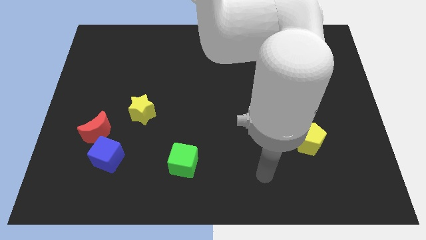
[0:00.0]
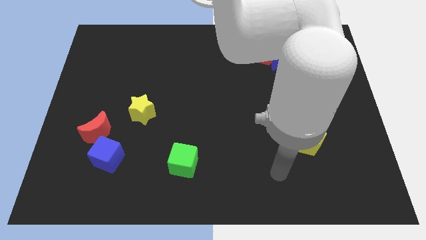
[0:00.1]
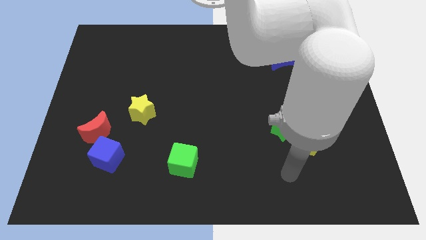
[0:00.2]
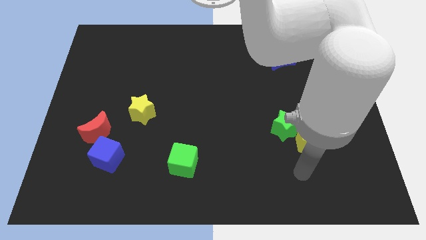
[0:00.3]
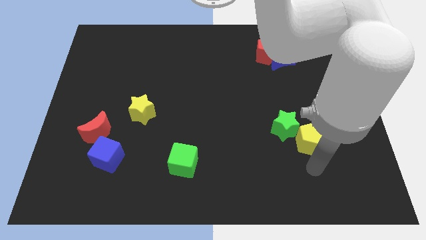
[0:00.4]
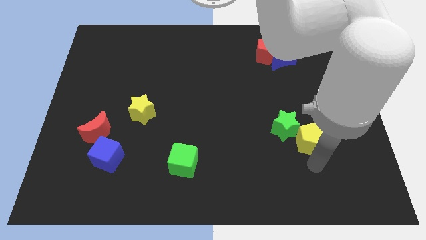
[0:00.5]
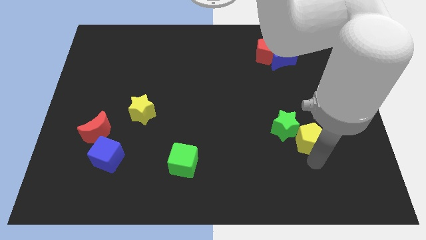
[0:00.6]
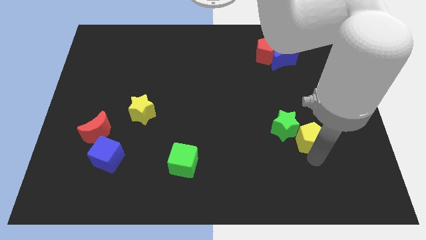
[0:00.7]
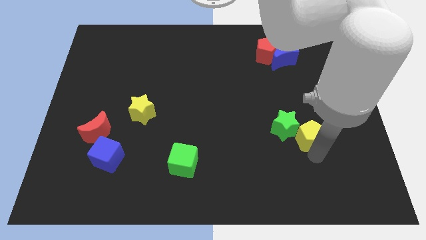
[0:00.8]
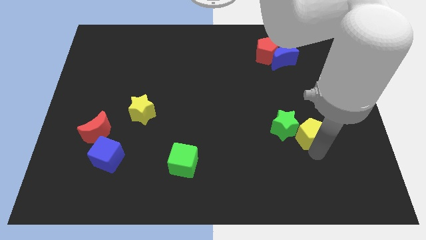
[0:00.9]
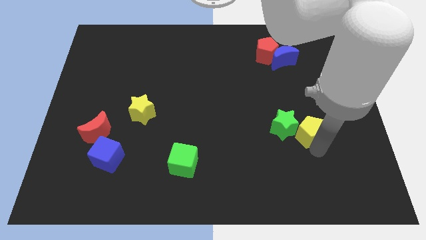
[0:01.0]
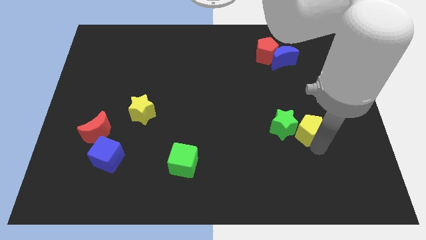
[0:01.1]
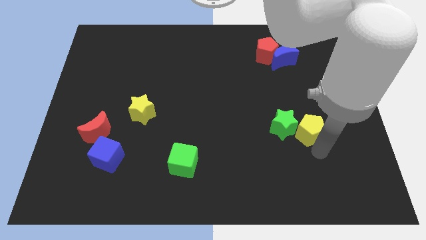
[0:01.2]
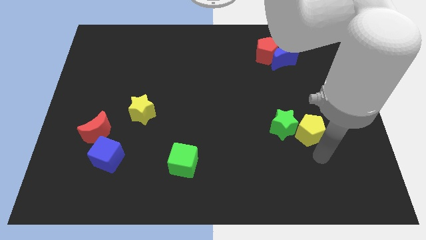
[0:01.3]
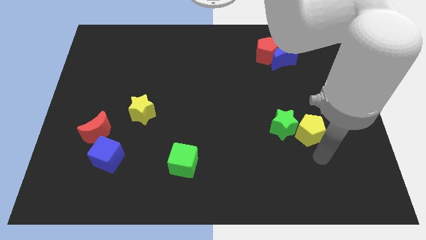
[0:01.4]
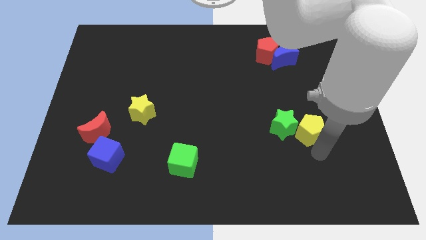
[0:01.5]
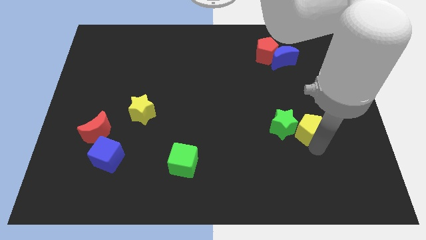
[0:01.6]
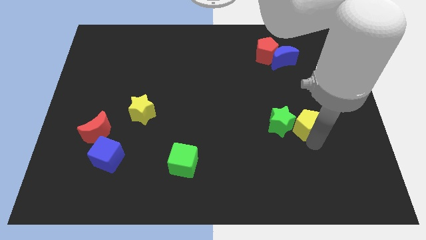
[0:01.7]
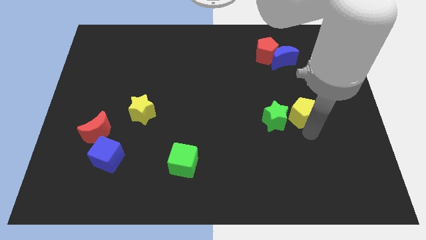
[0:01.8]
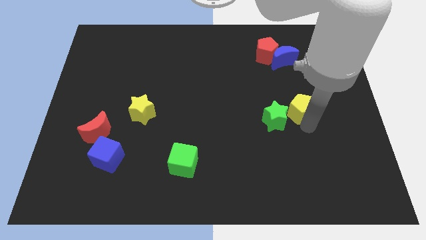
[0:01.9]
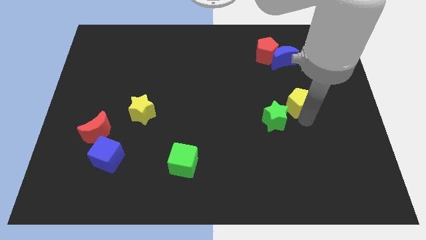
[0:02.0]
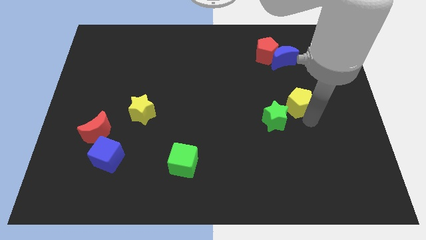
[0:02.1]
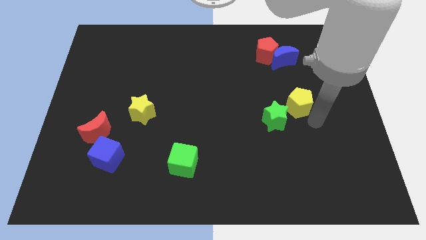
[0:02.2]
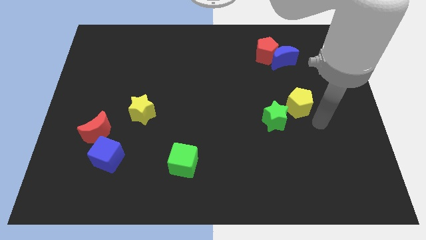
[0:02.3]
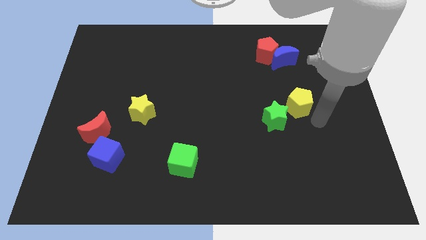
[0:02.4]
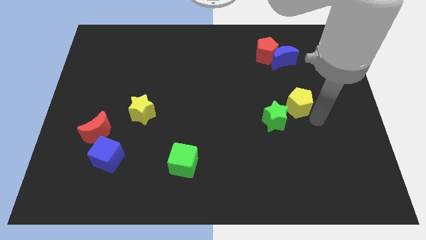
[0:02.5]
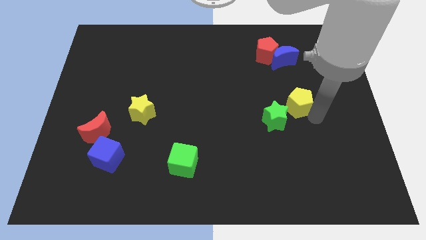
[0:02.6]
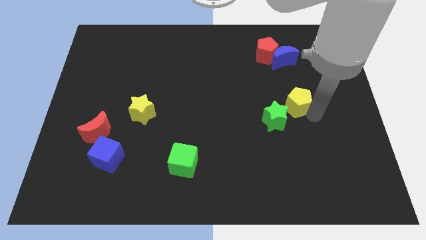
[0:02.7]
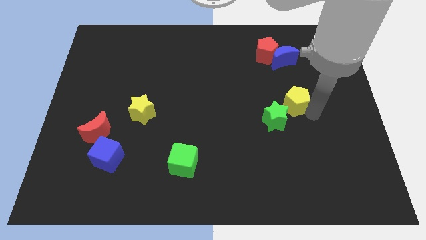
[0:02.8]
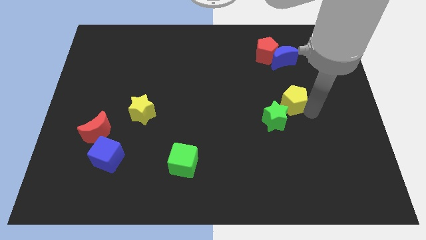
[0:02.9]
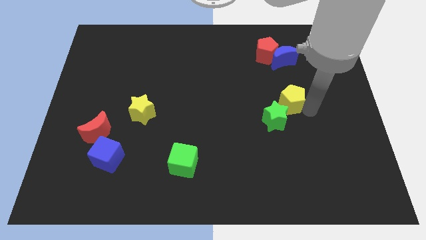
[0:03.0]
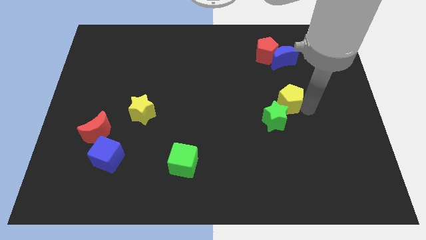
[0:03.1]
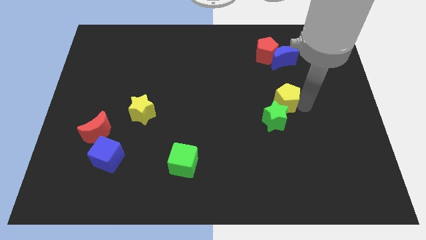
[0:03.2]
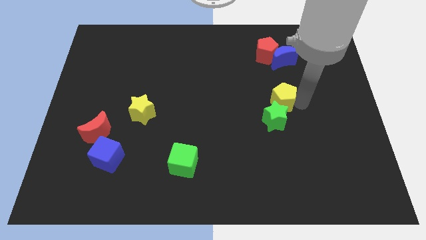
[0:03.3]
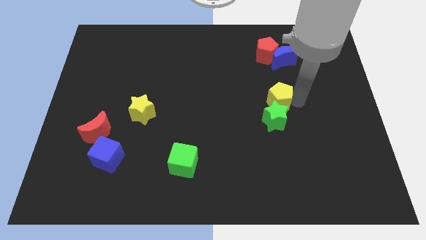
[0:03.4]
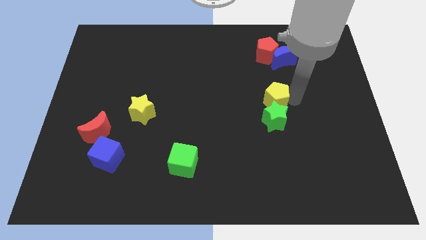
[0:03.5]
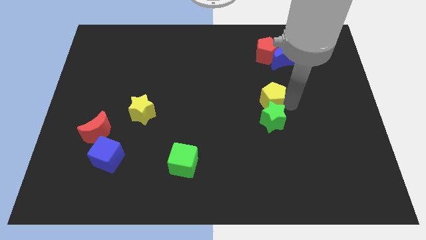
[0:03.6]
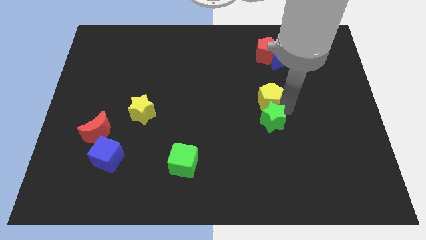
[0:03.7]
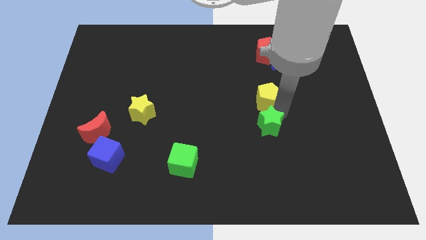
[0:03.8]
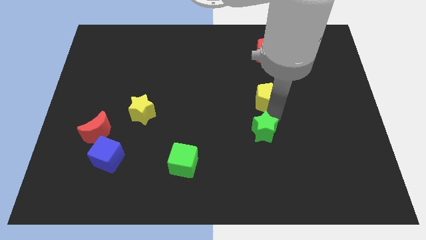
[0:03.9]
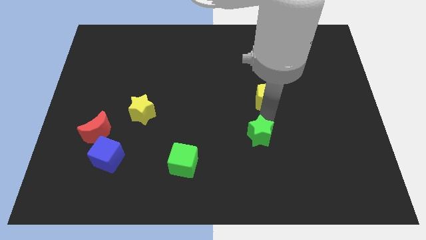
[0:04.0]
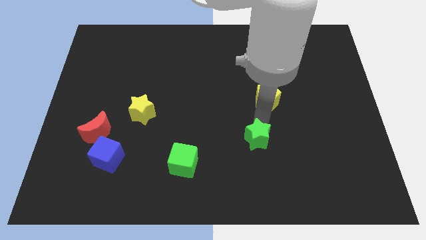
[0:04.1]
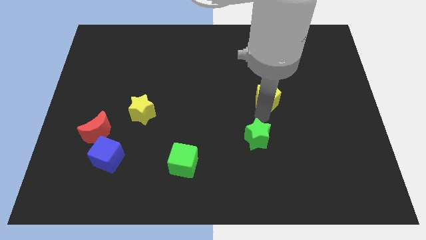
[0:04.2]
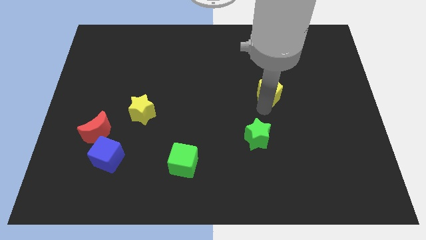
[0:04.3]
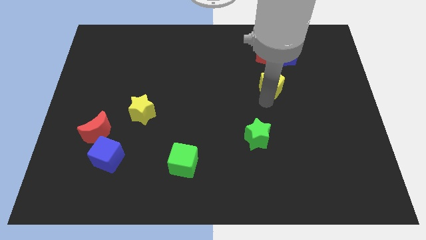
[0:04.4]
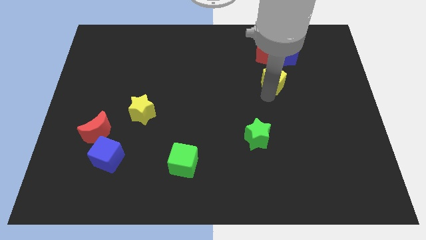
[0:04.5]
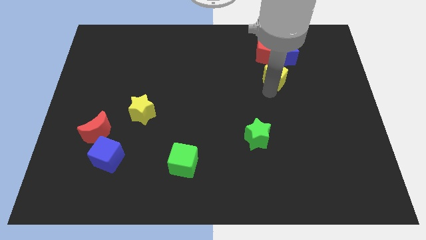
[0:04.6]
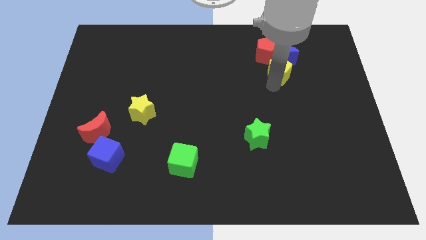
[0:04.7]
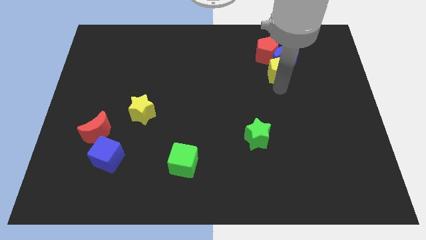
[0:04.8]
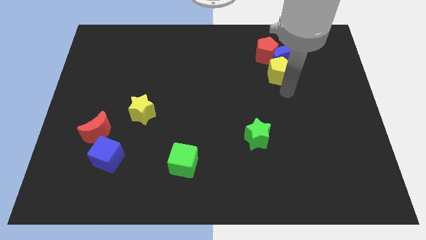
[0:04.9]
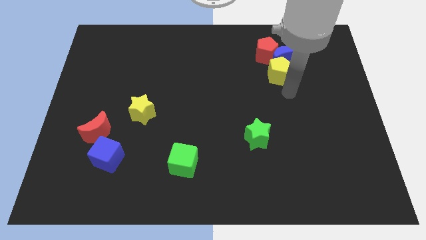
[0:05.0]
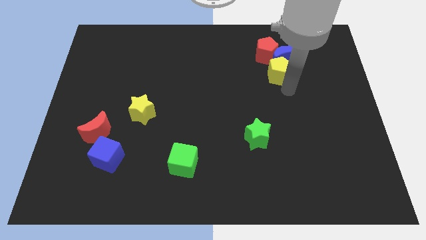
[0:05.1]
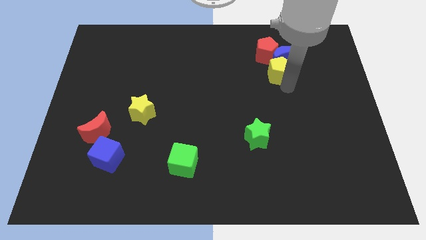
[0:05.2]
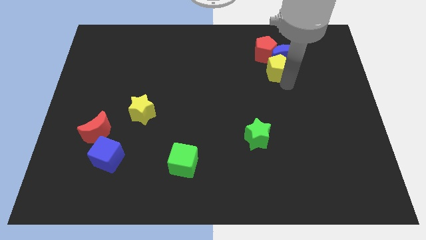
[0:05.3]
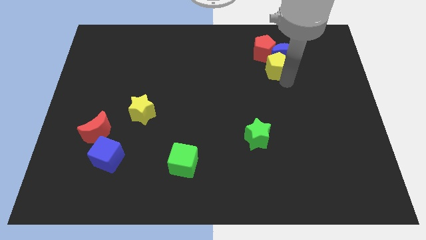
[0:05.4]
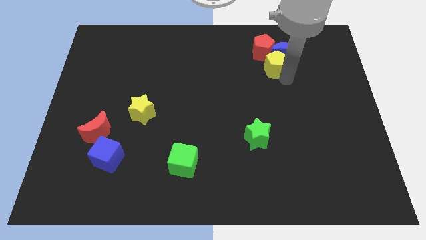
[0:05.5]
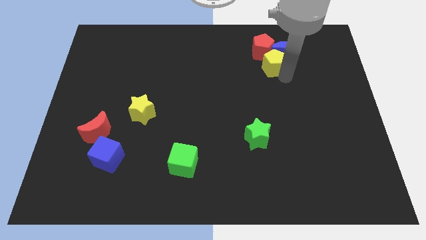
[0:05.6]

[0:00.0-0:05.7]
push the yellow pentagon next to the red pentagon

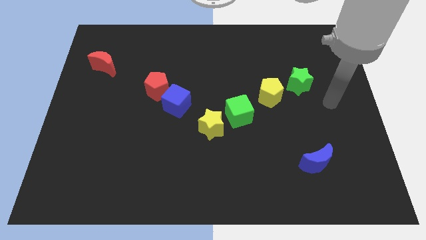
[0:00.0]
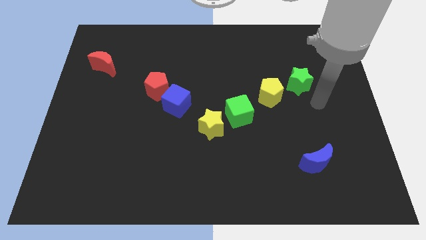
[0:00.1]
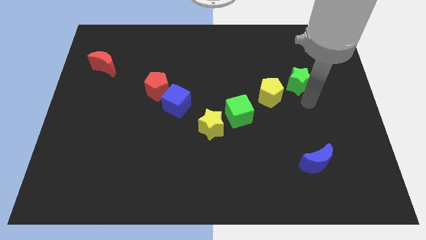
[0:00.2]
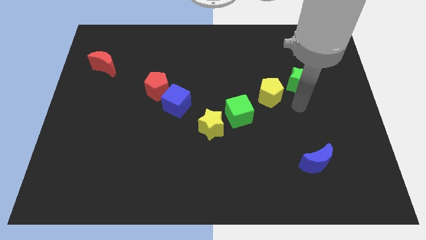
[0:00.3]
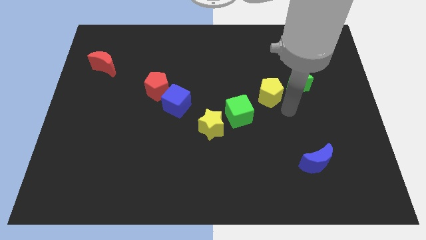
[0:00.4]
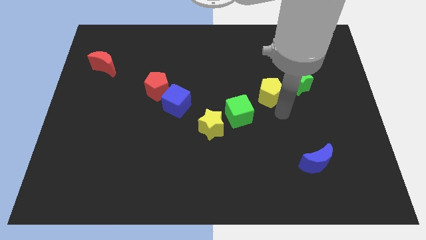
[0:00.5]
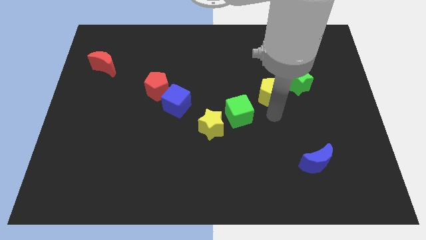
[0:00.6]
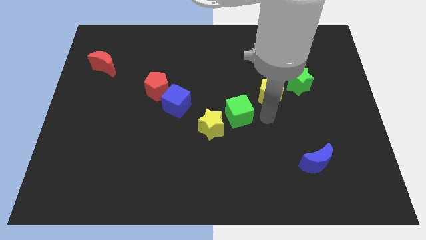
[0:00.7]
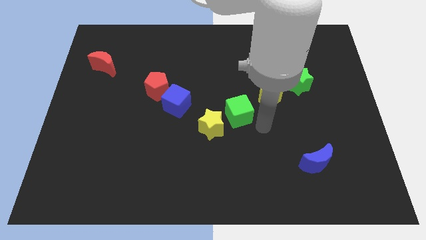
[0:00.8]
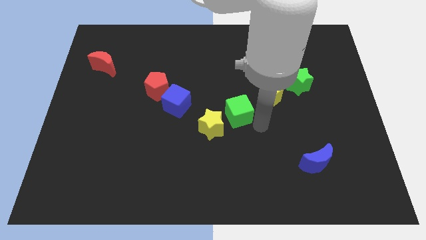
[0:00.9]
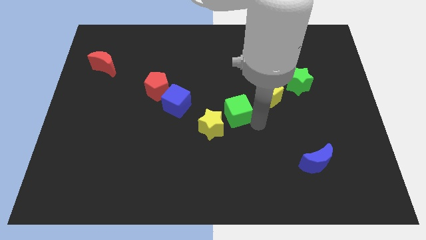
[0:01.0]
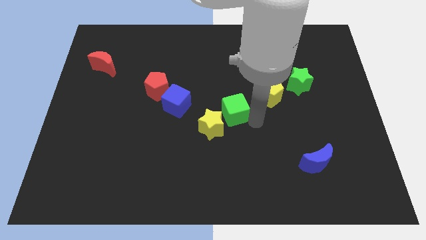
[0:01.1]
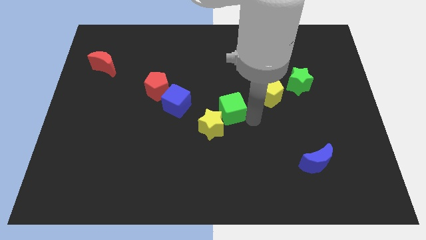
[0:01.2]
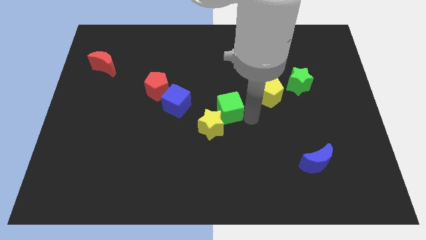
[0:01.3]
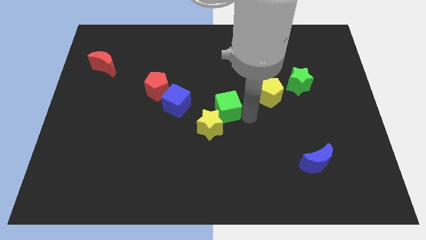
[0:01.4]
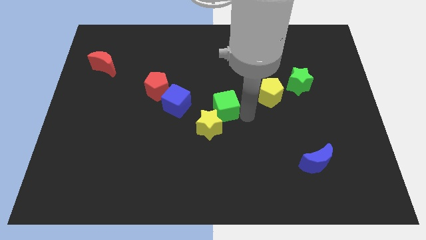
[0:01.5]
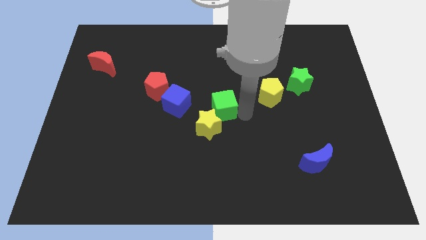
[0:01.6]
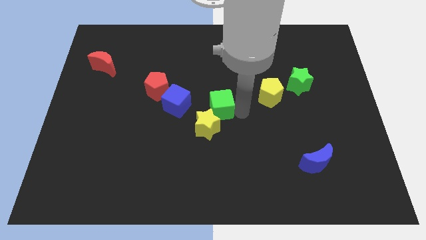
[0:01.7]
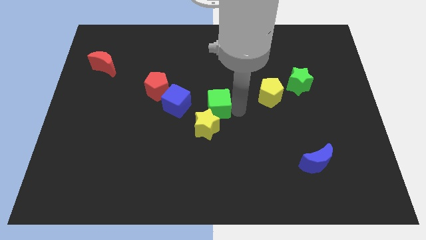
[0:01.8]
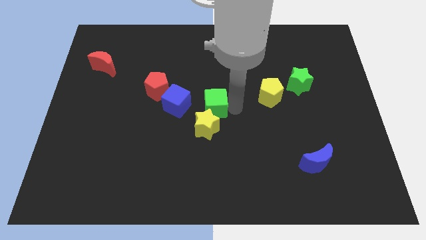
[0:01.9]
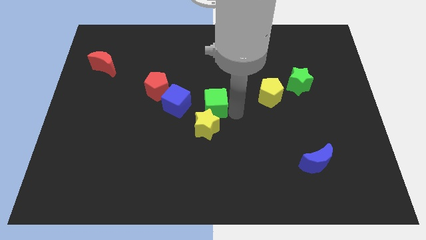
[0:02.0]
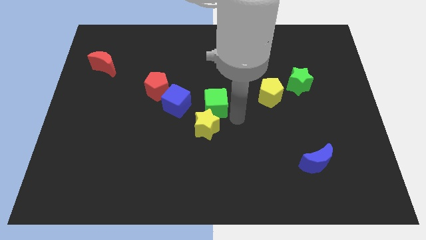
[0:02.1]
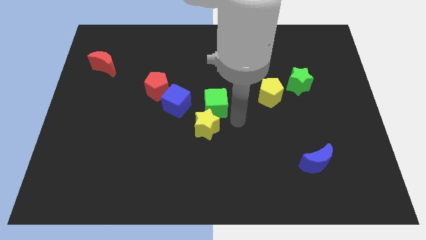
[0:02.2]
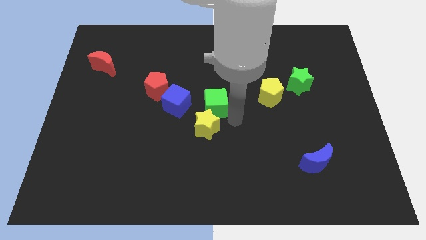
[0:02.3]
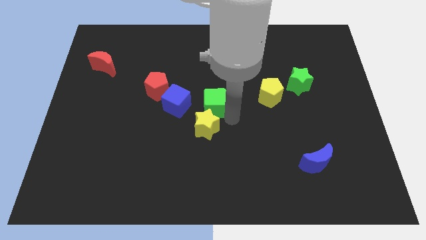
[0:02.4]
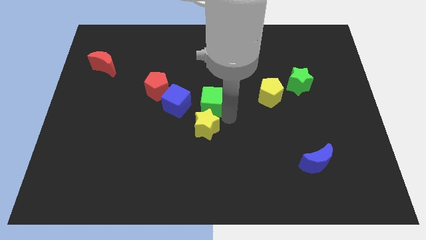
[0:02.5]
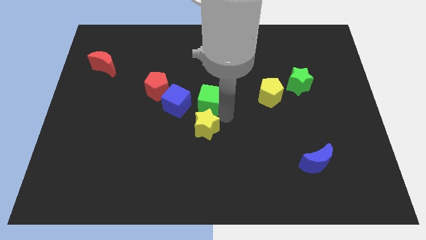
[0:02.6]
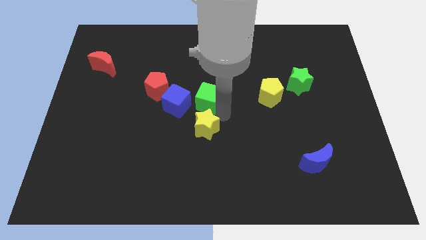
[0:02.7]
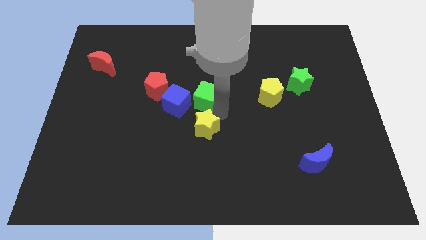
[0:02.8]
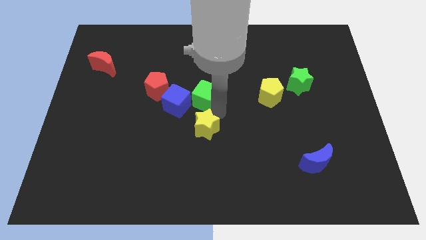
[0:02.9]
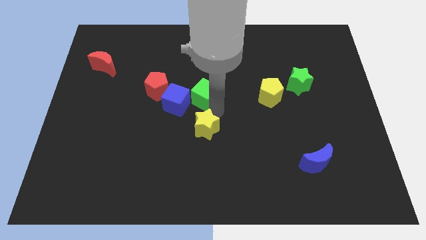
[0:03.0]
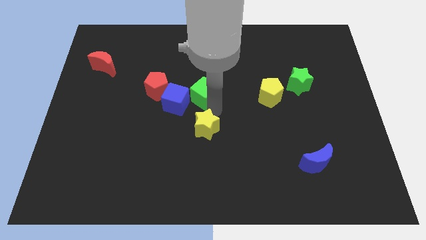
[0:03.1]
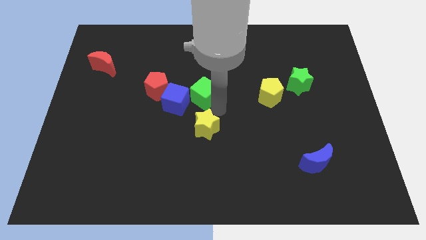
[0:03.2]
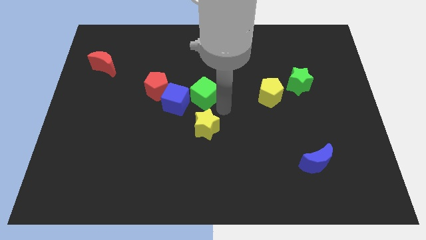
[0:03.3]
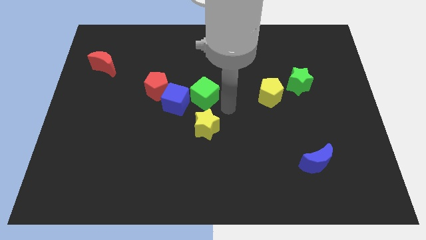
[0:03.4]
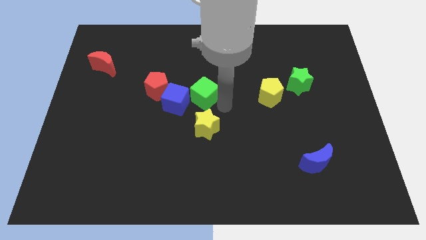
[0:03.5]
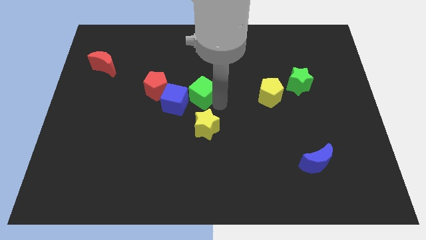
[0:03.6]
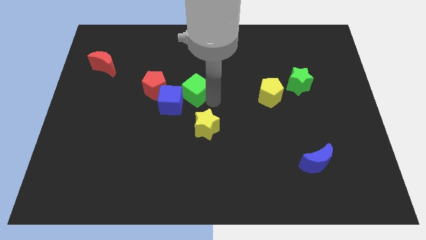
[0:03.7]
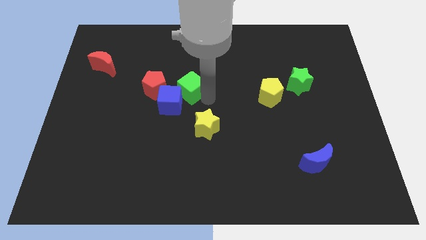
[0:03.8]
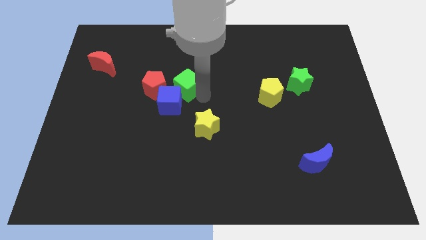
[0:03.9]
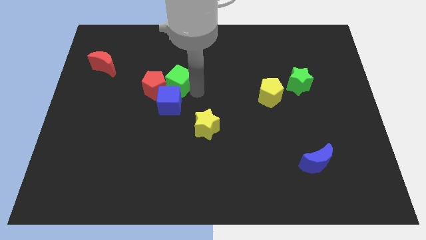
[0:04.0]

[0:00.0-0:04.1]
move the green cube close to the red pentagon
